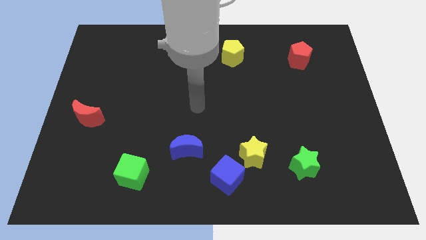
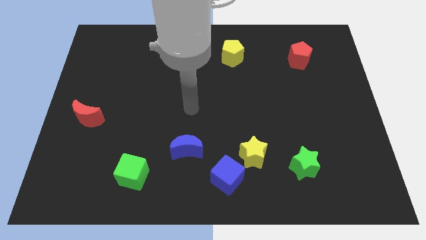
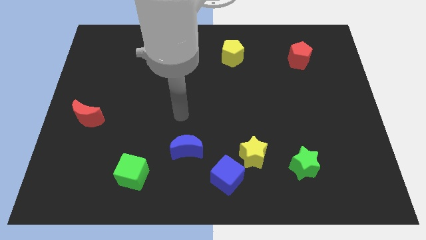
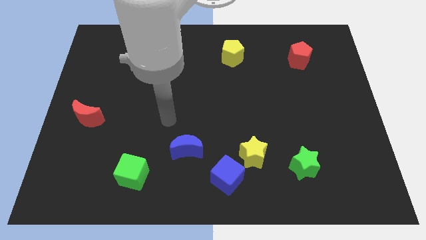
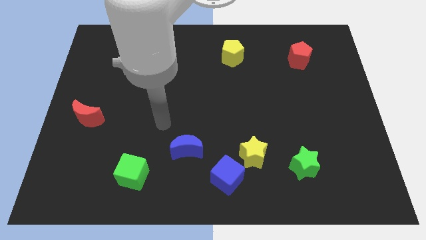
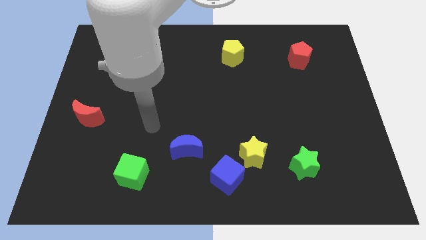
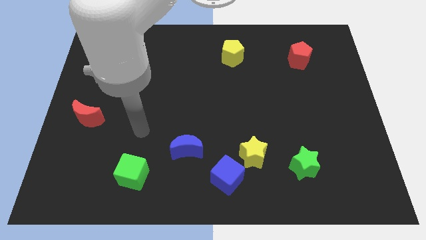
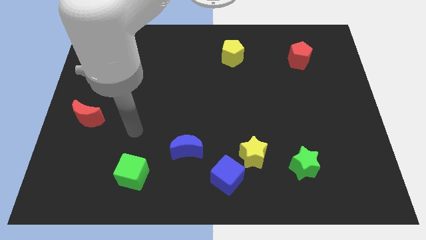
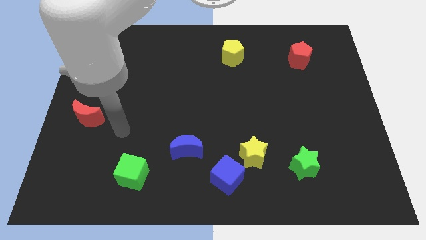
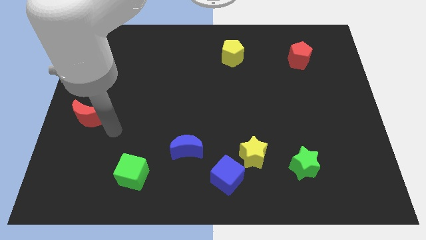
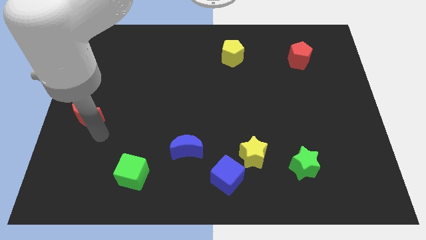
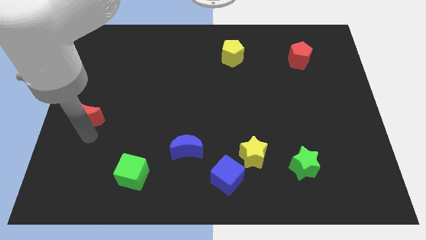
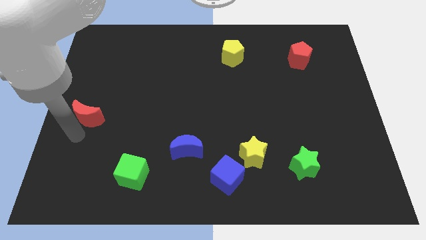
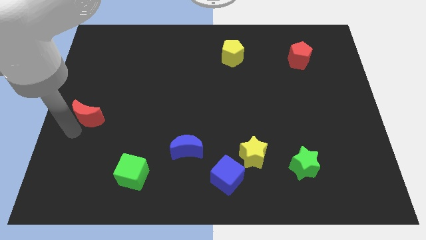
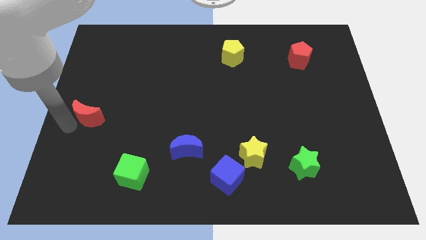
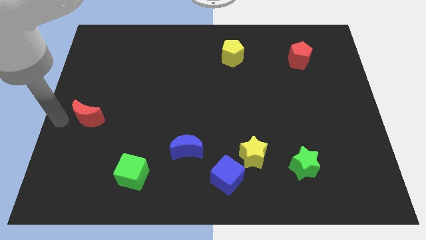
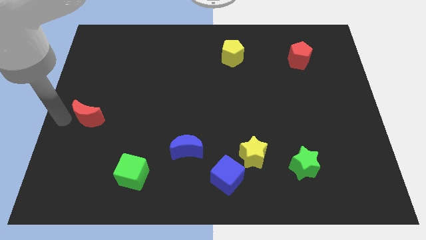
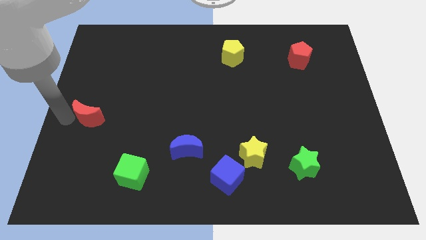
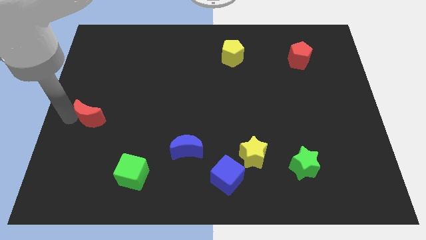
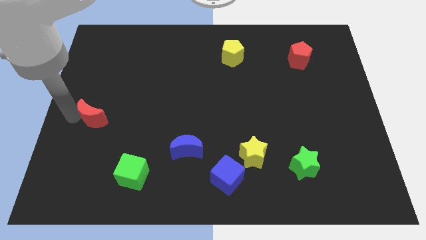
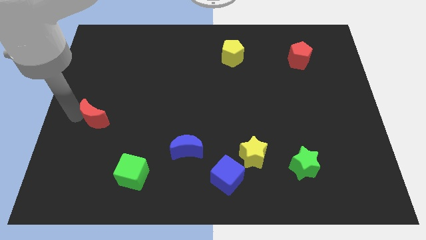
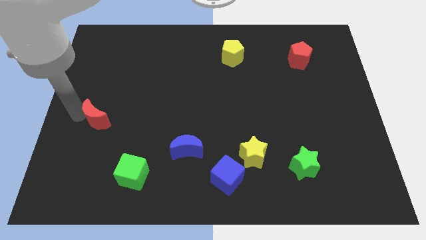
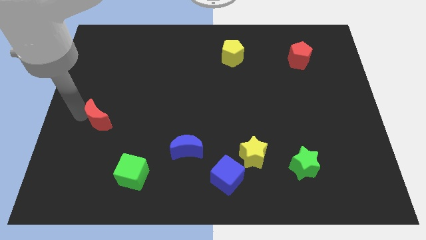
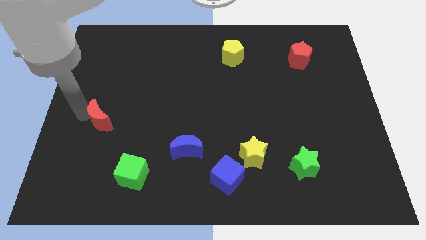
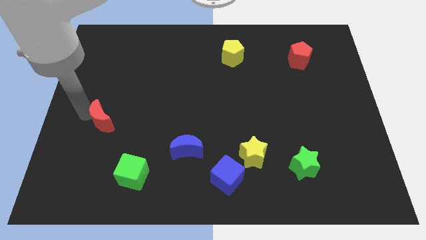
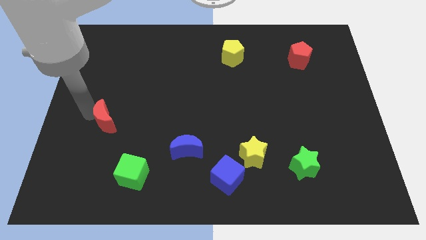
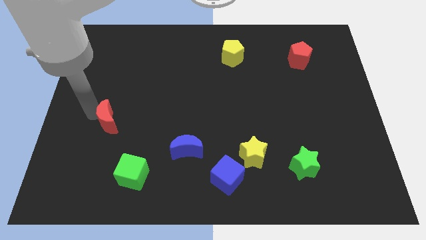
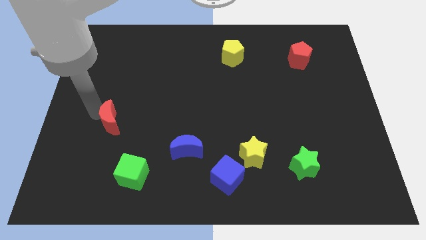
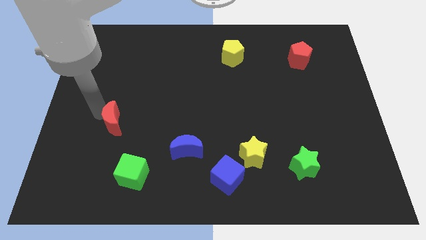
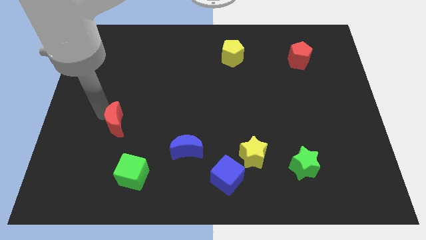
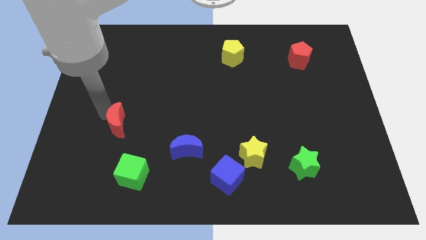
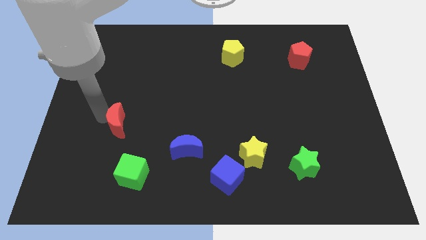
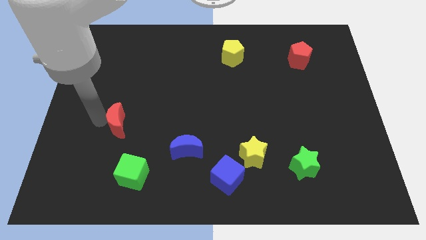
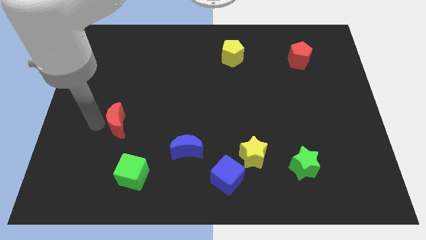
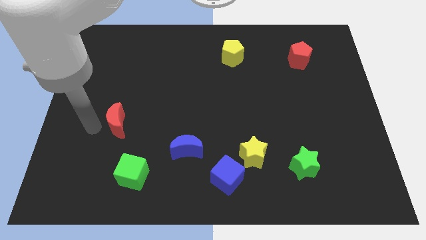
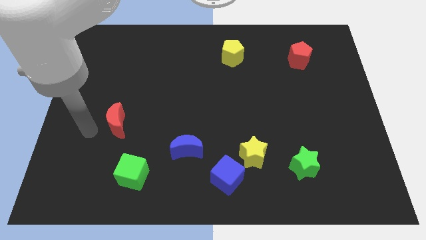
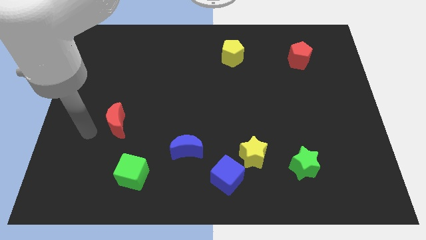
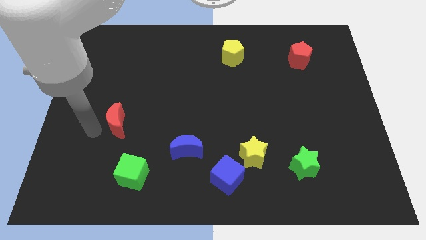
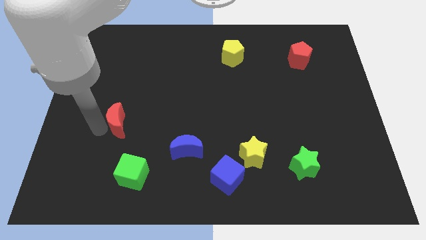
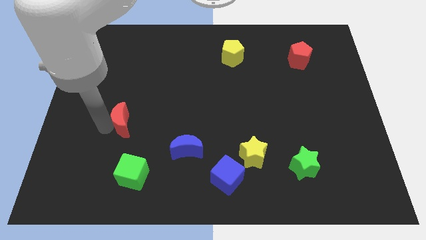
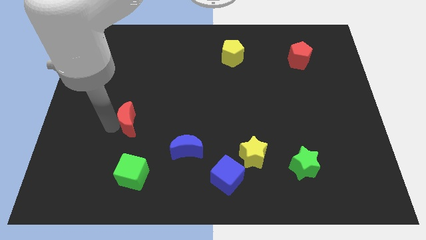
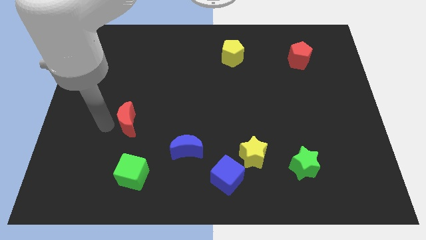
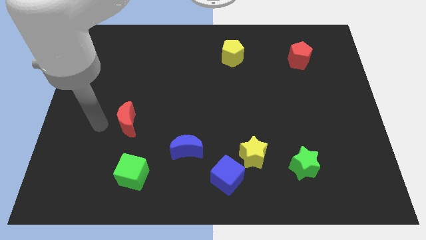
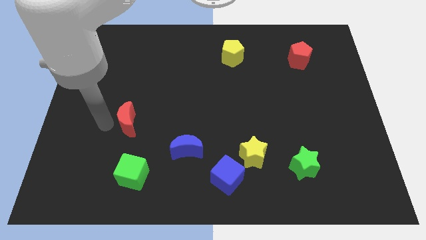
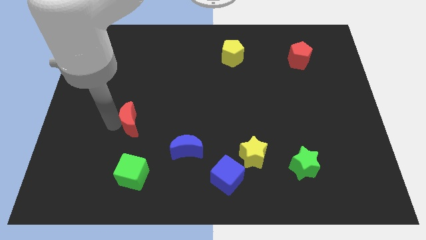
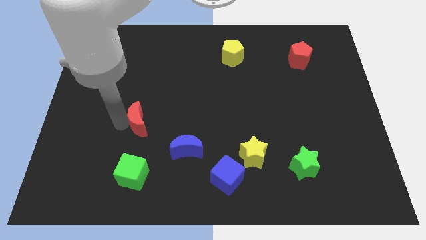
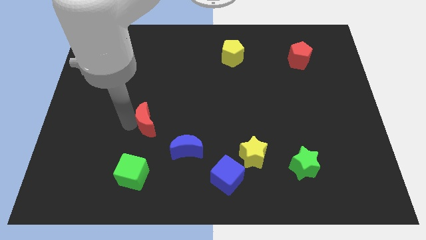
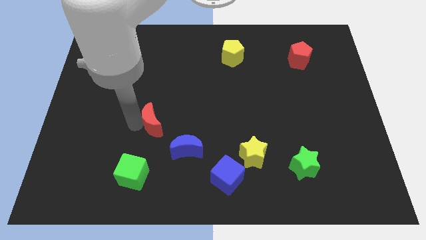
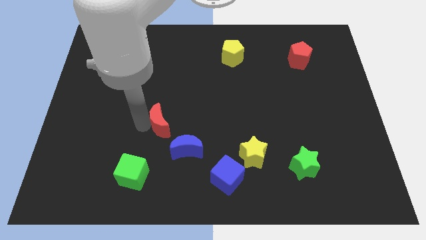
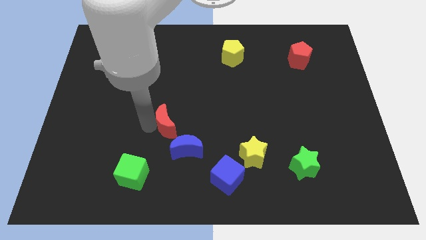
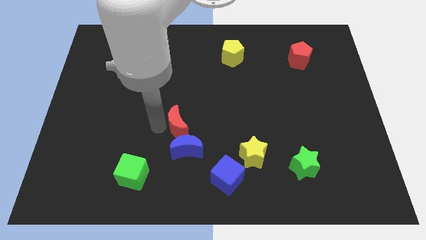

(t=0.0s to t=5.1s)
move the red moon right

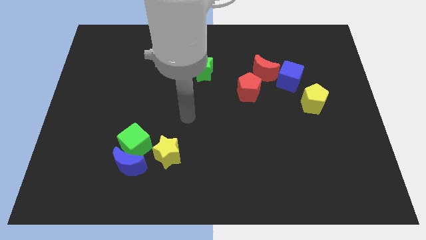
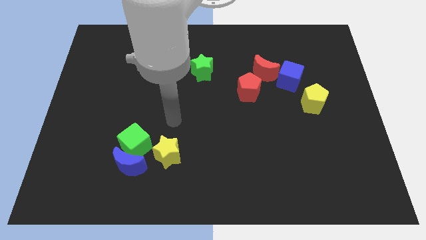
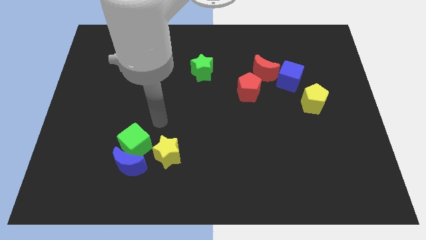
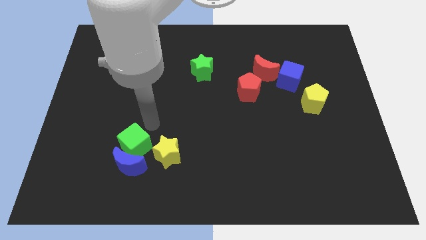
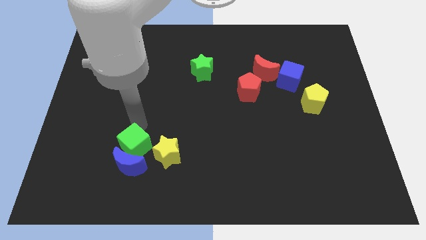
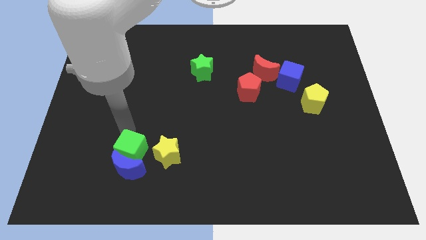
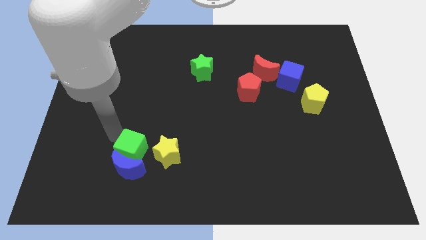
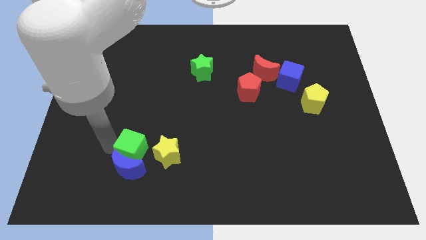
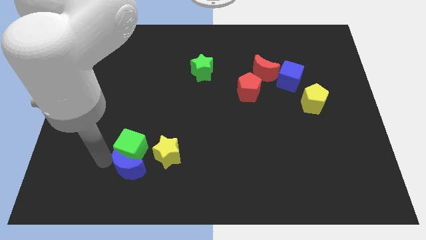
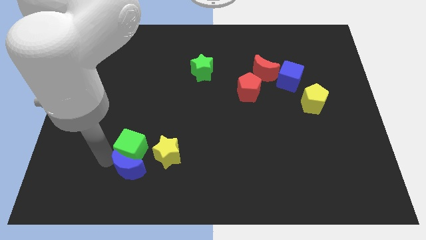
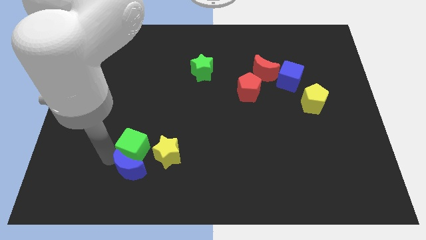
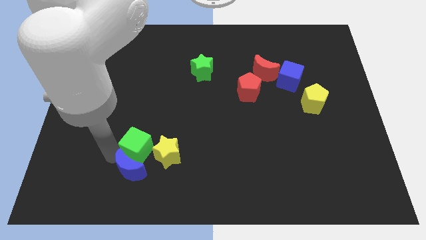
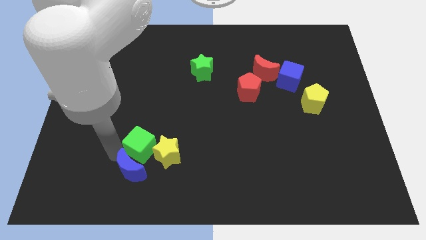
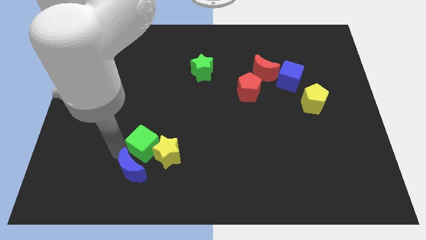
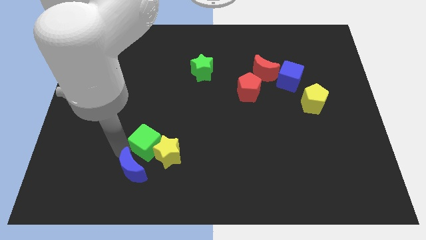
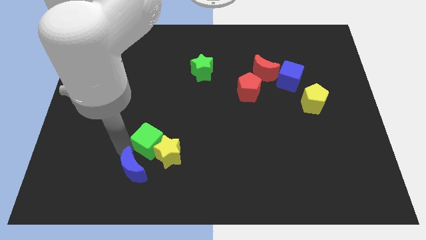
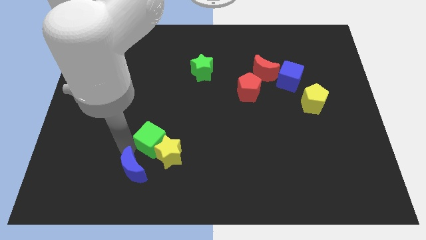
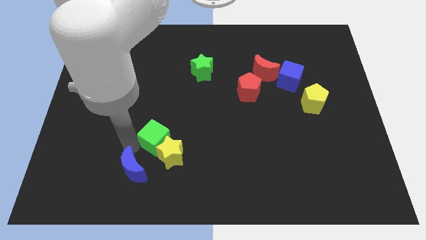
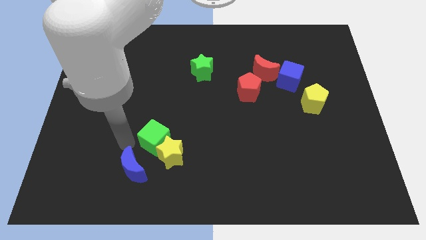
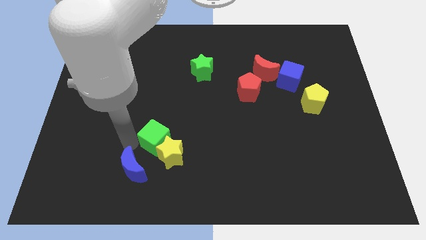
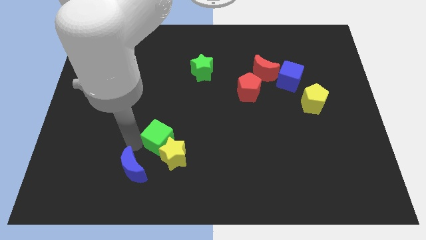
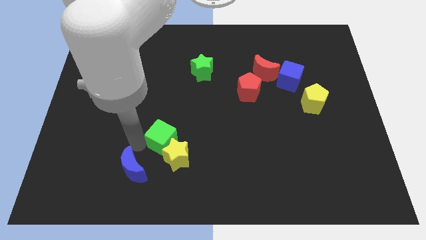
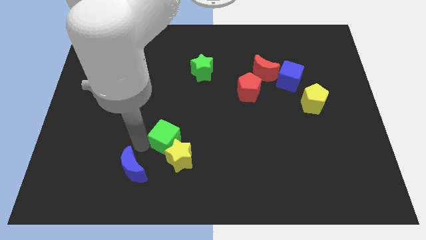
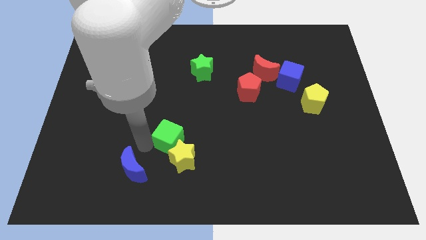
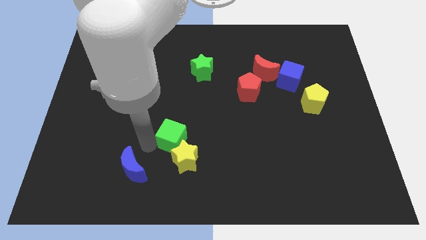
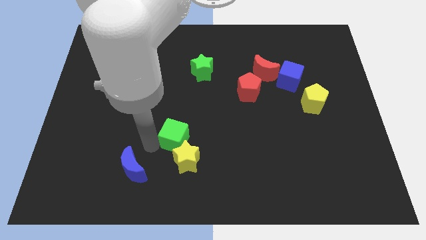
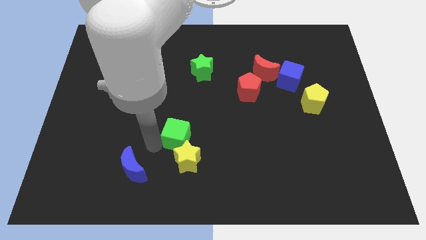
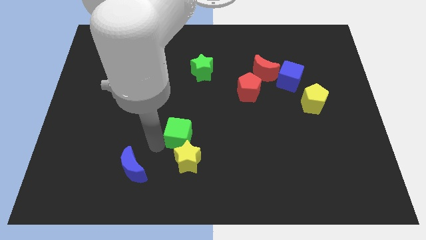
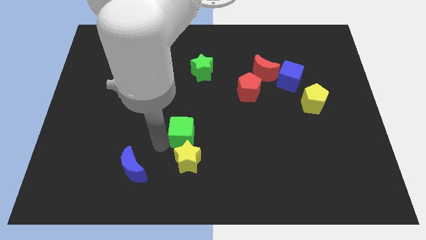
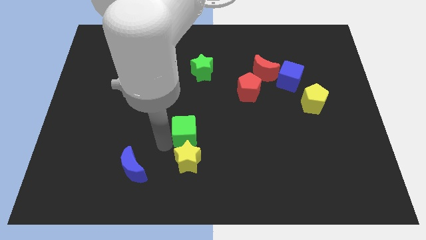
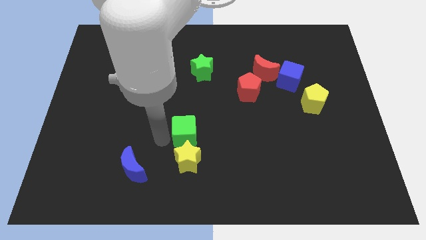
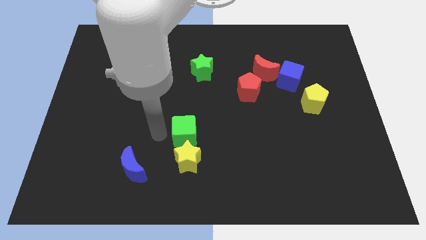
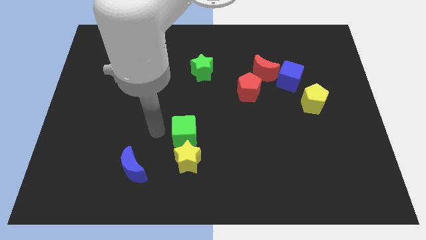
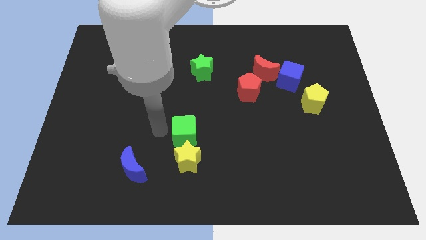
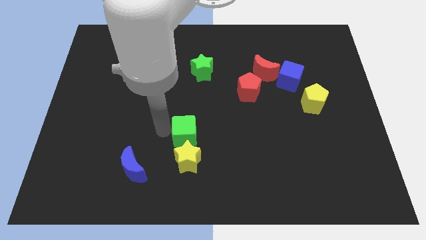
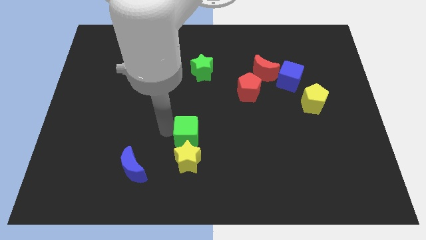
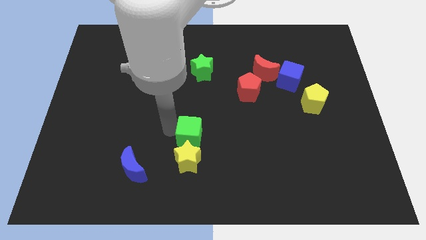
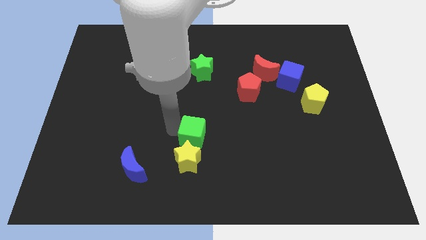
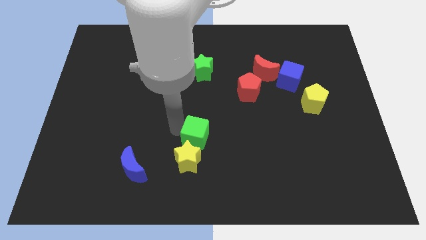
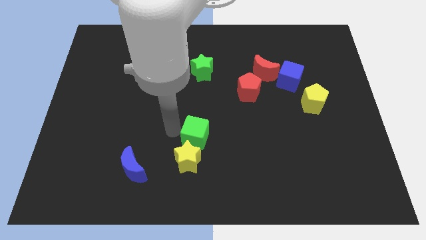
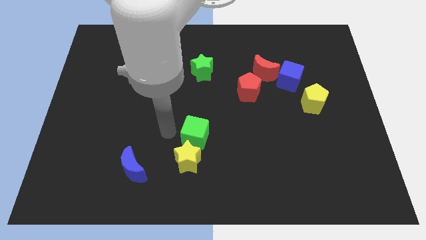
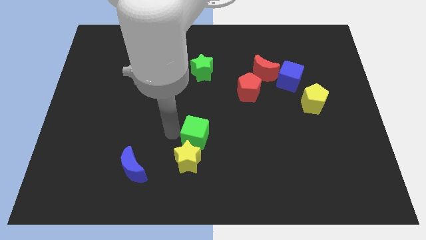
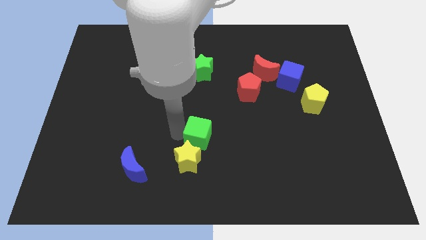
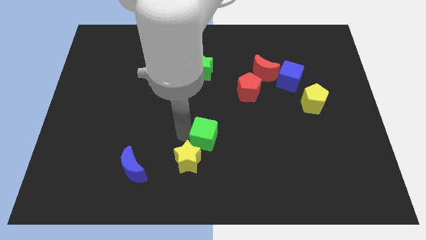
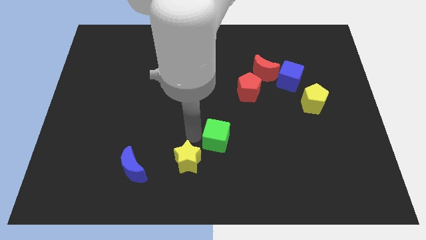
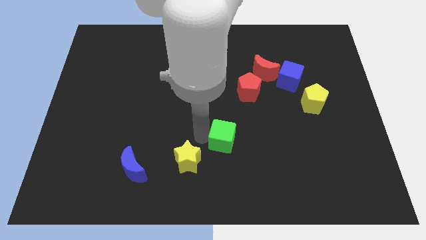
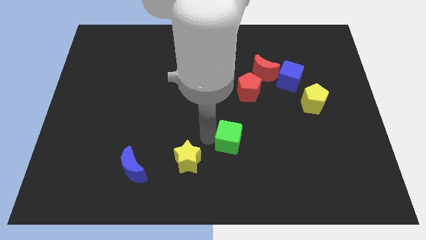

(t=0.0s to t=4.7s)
move the green cube right
